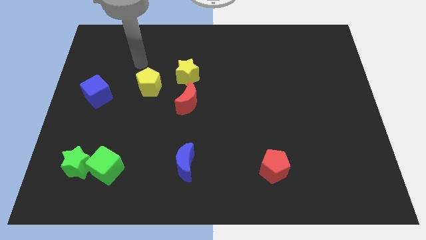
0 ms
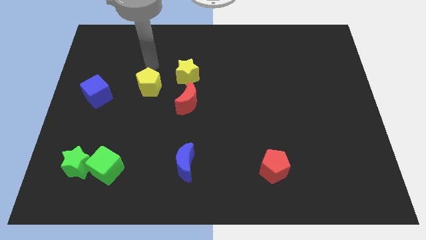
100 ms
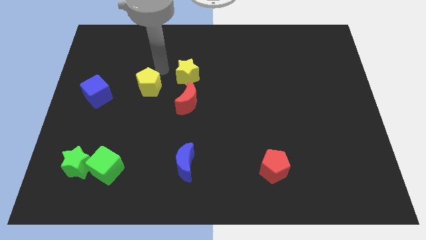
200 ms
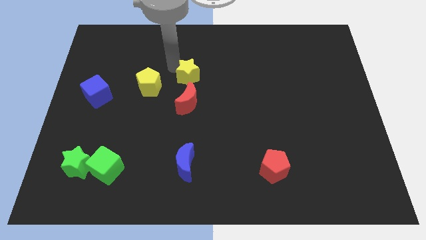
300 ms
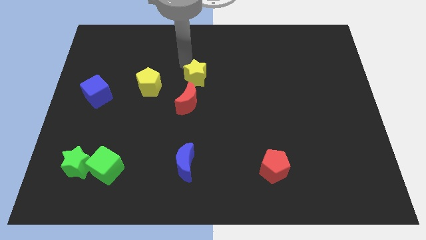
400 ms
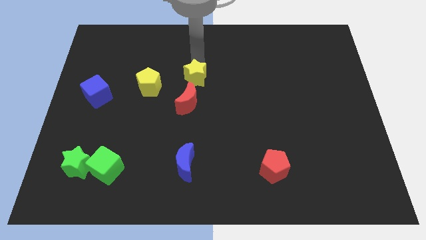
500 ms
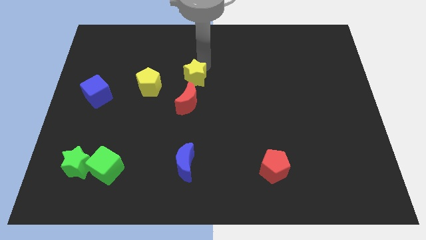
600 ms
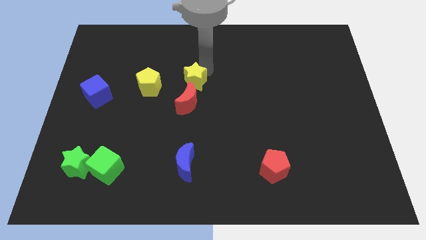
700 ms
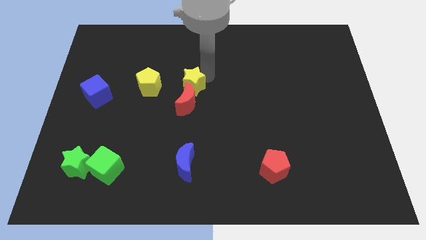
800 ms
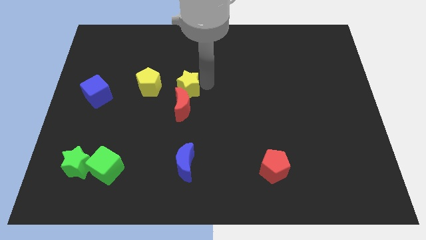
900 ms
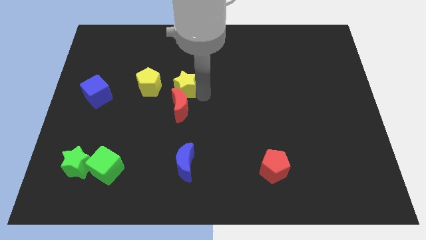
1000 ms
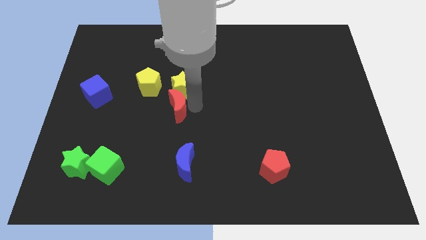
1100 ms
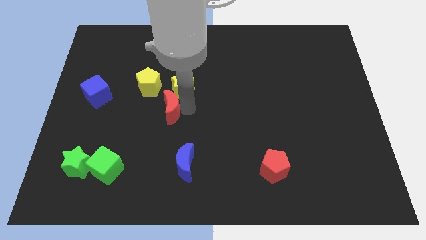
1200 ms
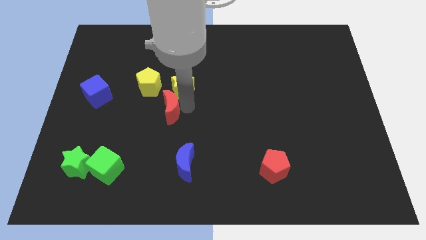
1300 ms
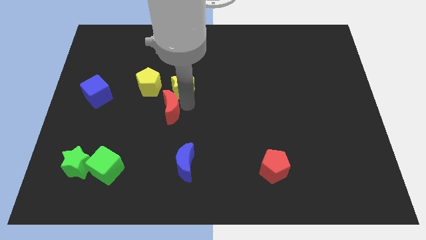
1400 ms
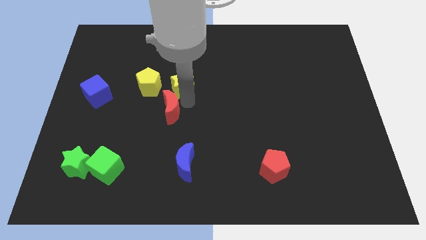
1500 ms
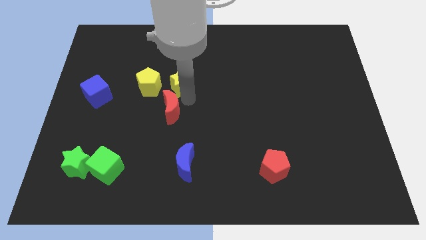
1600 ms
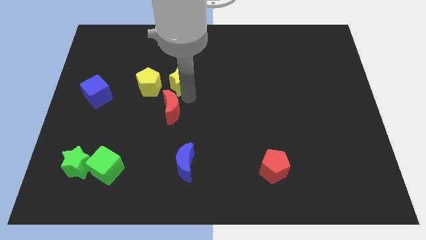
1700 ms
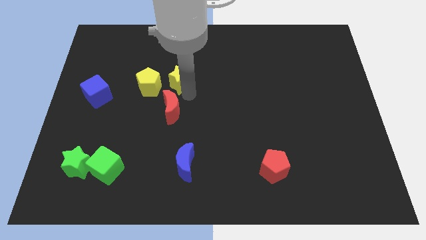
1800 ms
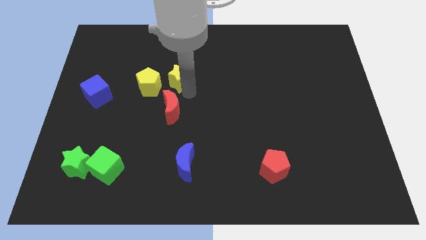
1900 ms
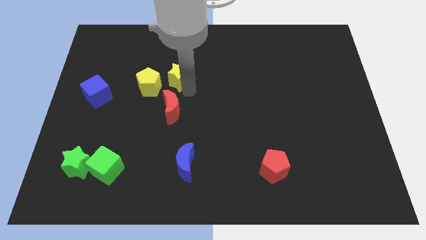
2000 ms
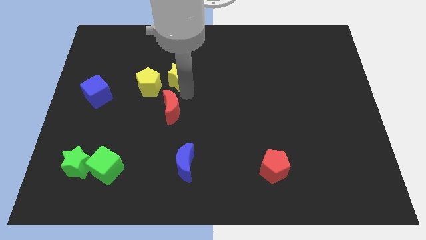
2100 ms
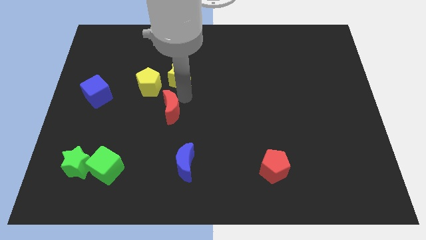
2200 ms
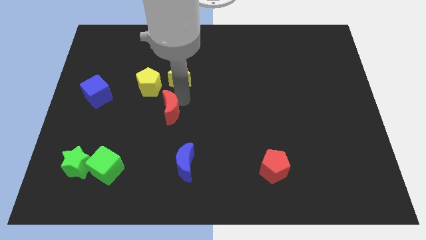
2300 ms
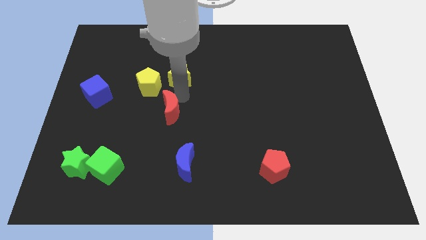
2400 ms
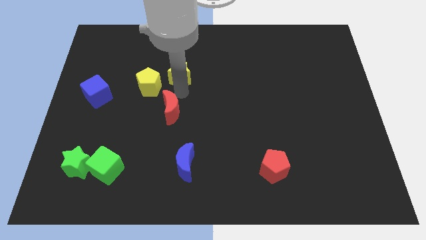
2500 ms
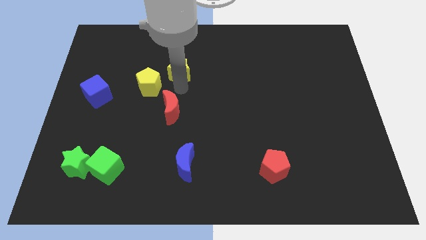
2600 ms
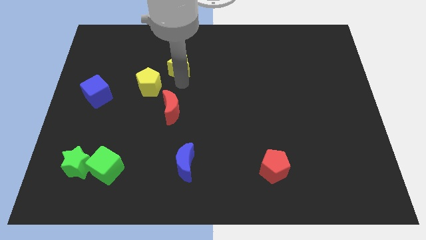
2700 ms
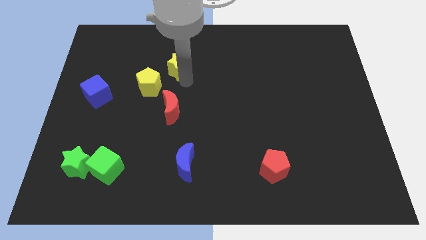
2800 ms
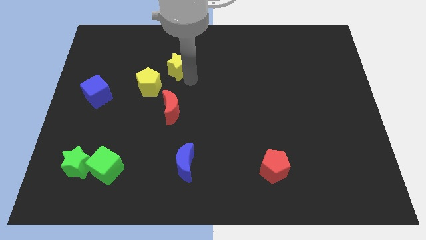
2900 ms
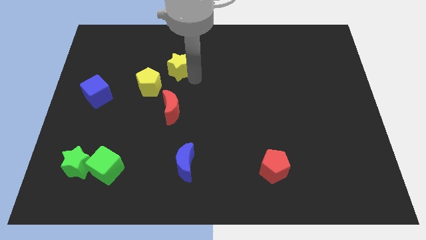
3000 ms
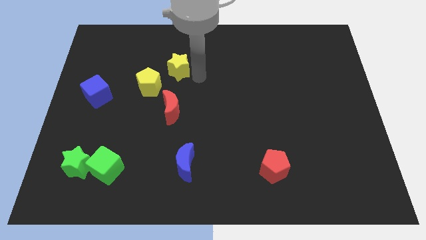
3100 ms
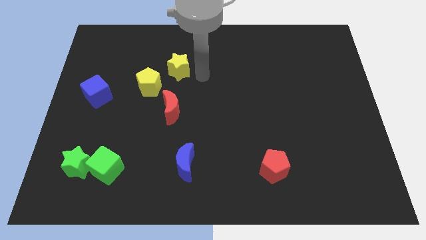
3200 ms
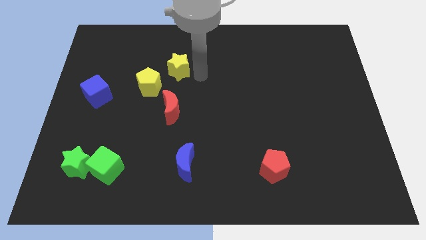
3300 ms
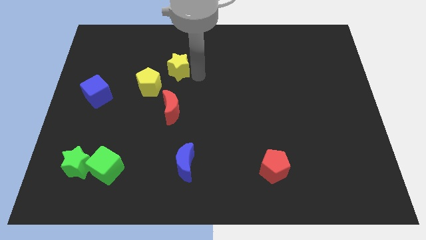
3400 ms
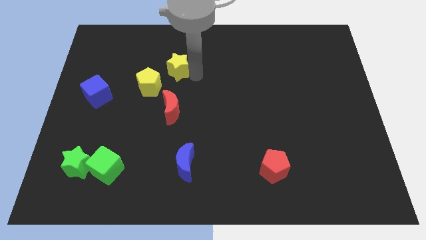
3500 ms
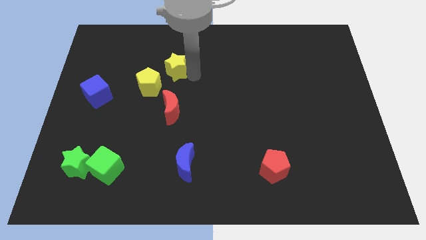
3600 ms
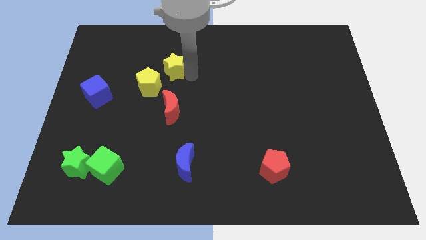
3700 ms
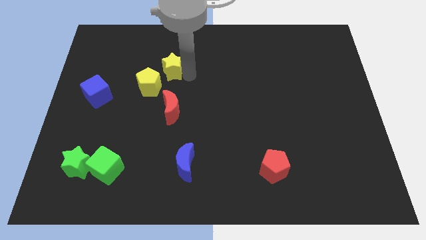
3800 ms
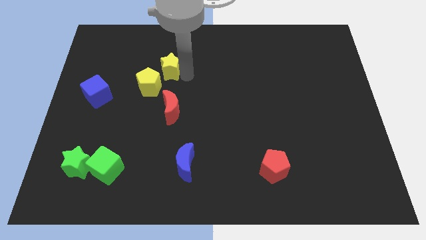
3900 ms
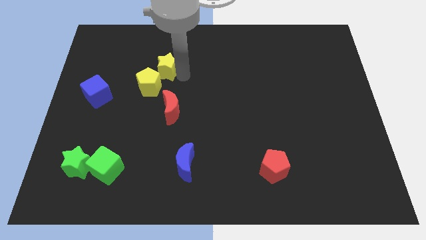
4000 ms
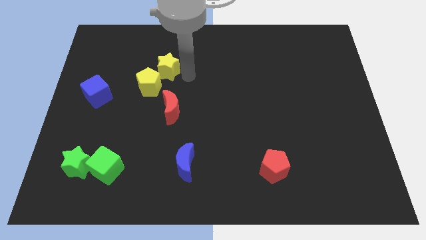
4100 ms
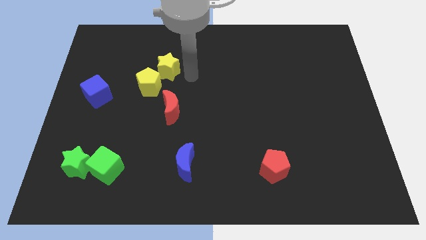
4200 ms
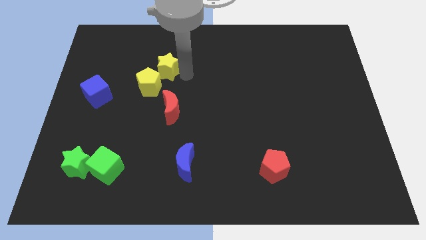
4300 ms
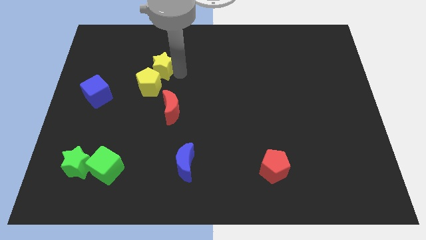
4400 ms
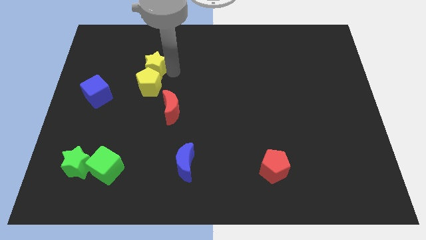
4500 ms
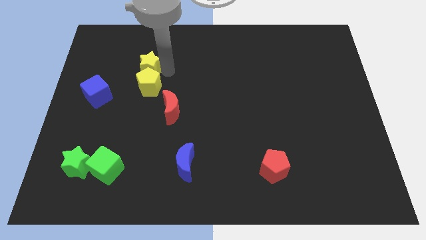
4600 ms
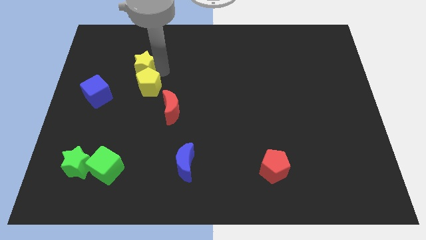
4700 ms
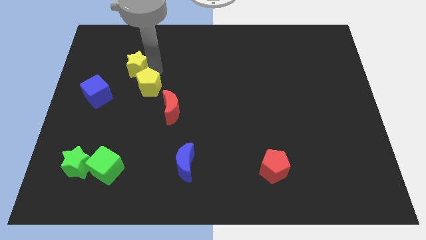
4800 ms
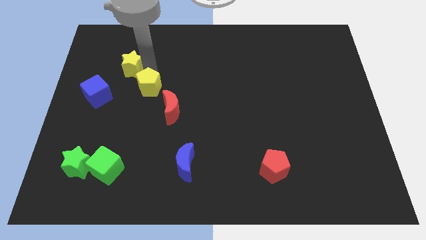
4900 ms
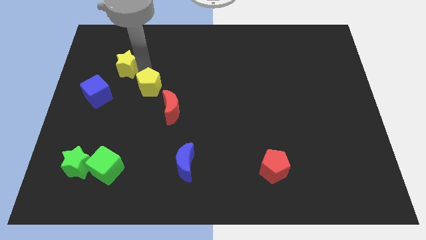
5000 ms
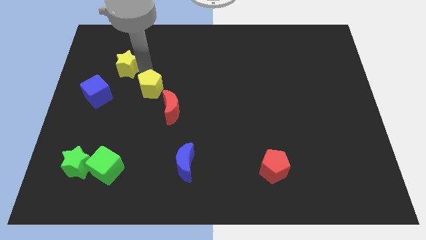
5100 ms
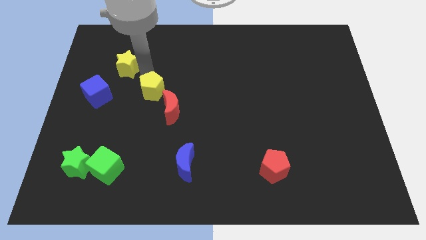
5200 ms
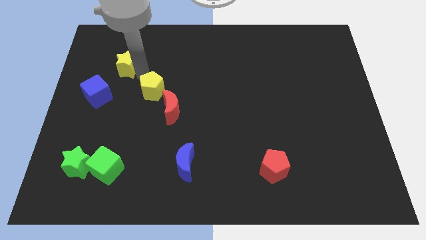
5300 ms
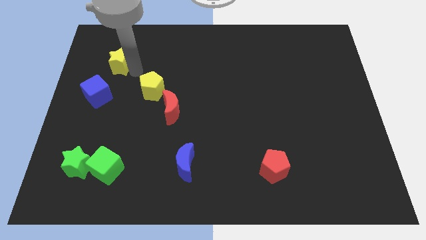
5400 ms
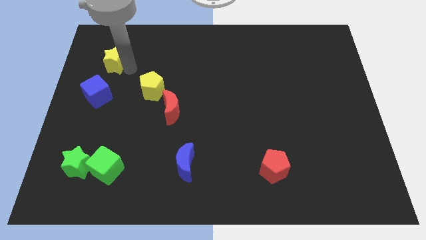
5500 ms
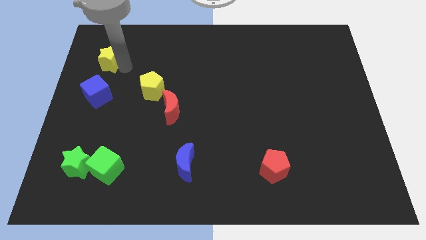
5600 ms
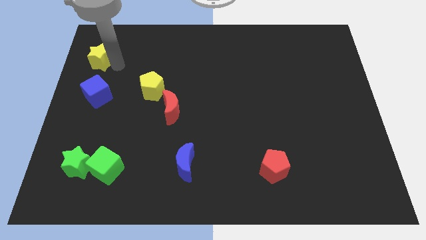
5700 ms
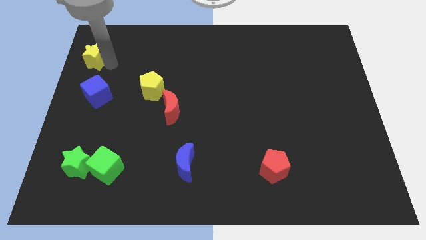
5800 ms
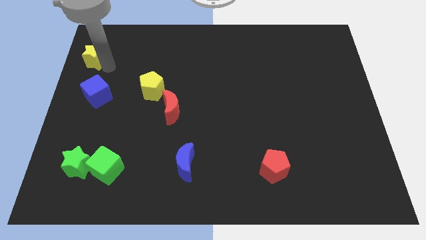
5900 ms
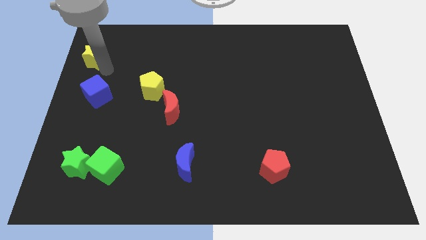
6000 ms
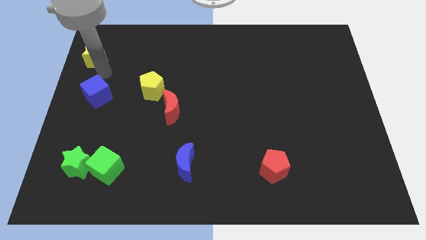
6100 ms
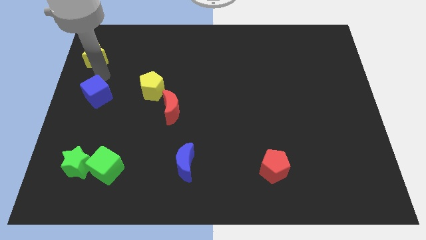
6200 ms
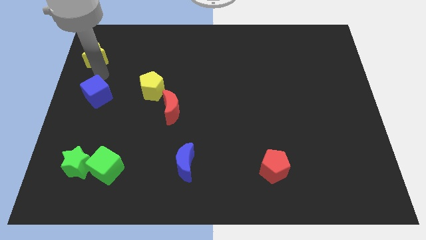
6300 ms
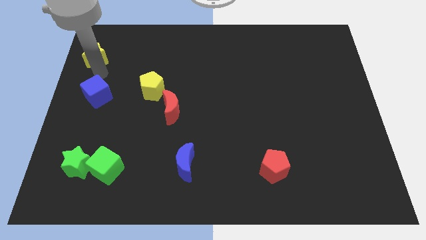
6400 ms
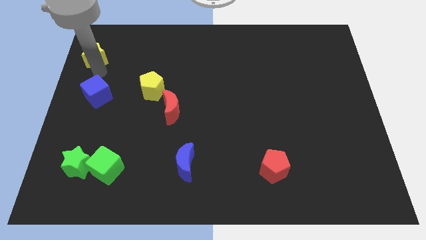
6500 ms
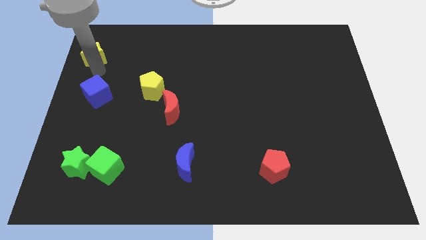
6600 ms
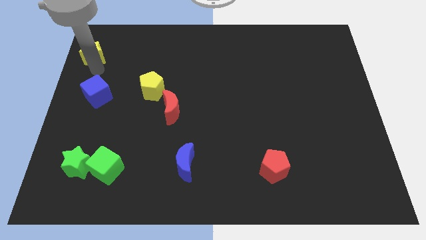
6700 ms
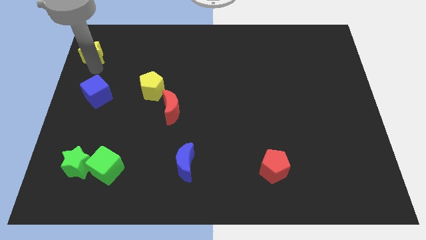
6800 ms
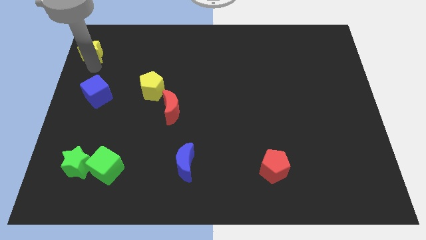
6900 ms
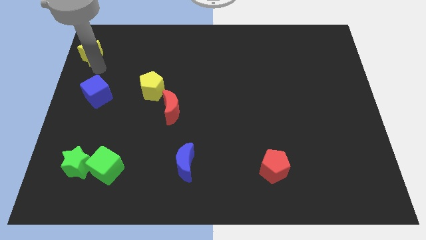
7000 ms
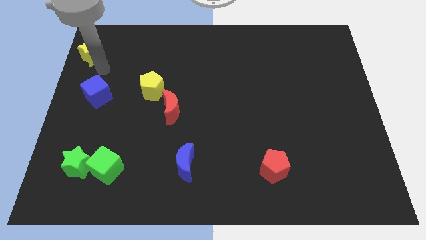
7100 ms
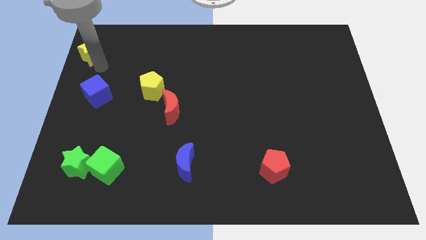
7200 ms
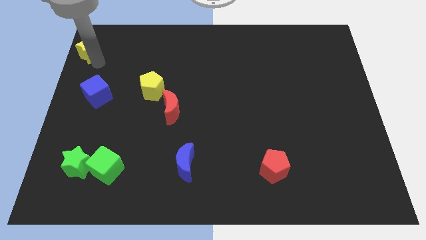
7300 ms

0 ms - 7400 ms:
push the yellow star to the upper left corner
